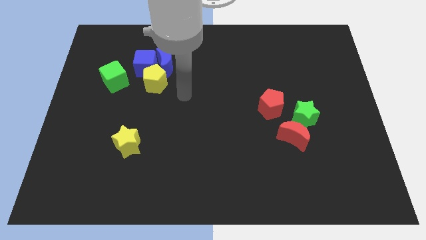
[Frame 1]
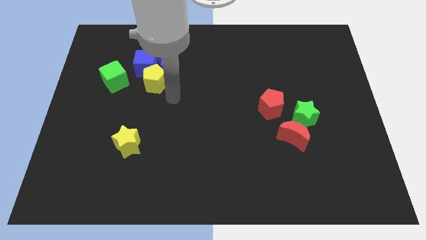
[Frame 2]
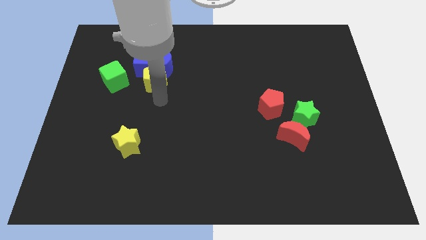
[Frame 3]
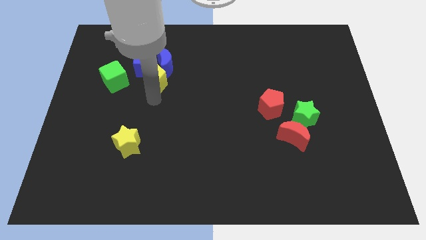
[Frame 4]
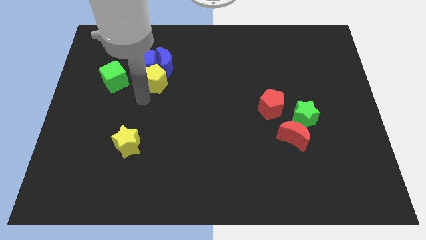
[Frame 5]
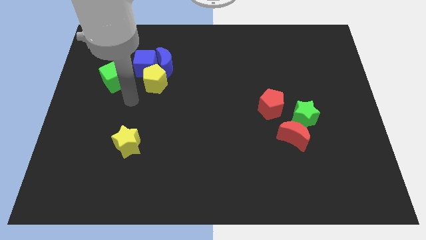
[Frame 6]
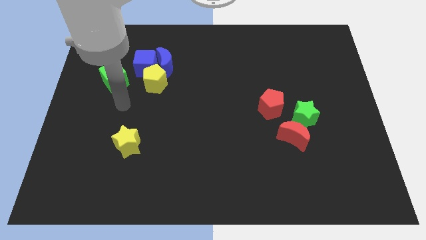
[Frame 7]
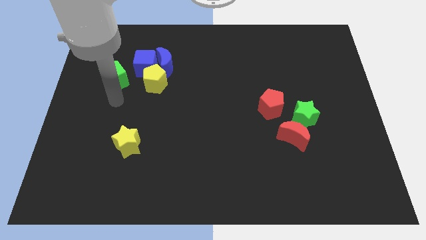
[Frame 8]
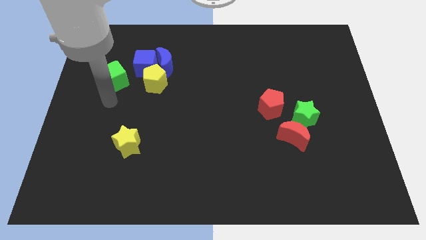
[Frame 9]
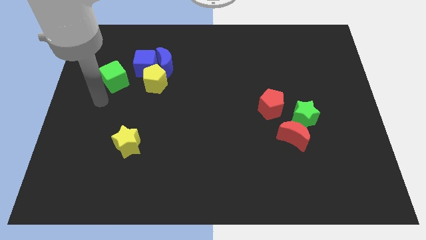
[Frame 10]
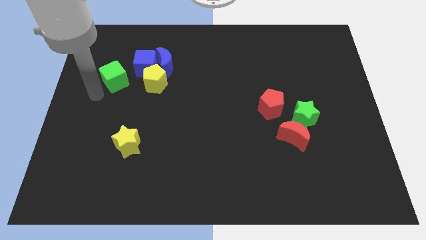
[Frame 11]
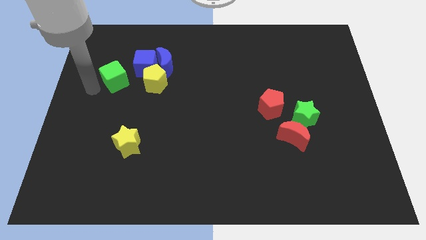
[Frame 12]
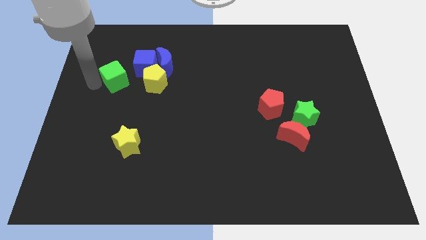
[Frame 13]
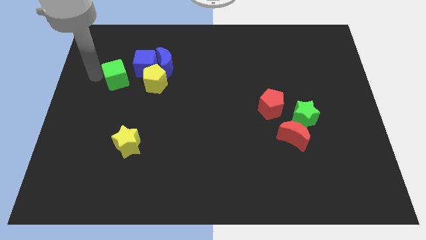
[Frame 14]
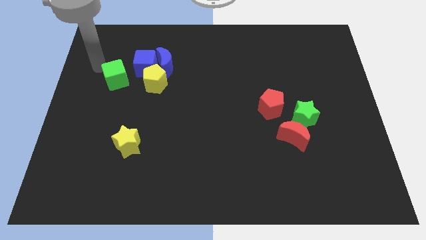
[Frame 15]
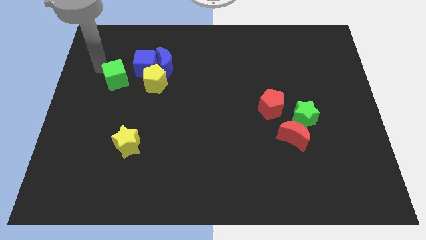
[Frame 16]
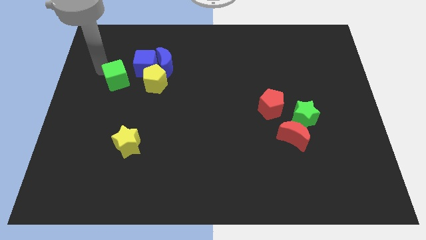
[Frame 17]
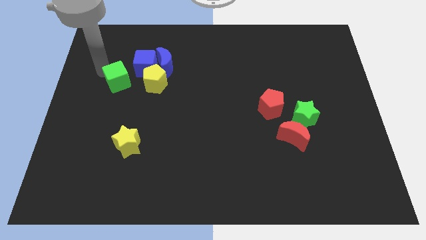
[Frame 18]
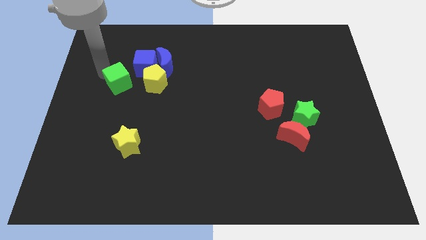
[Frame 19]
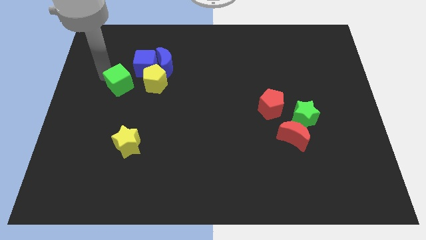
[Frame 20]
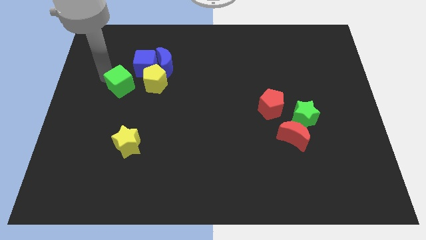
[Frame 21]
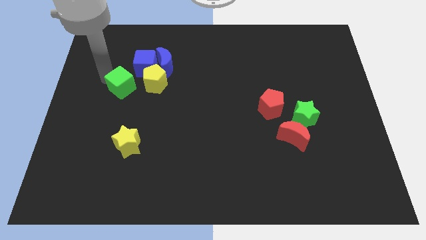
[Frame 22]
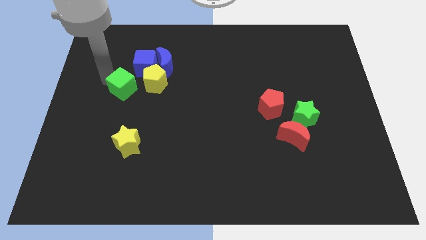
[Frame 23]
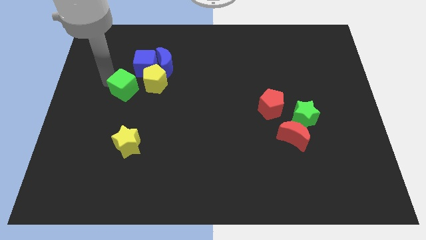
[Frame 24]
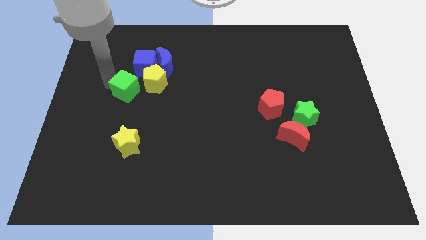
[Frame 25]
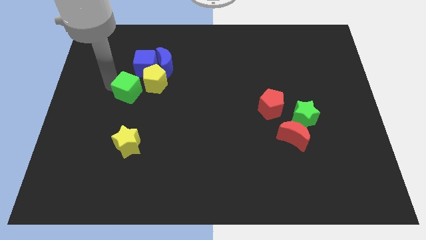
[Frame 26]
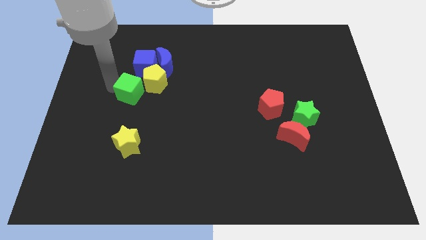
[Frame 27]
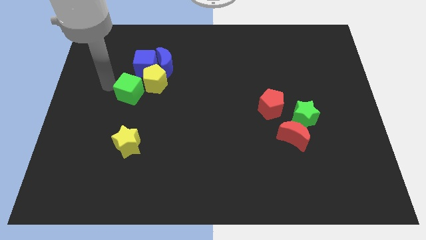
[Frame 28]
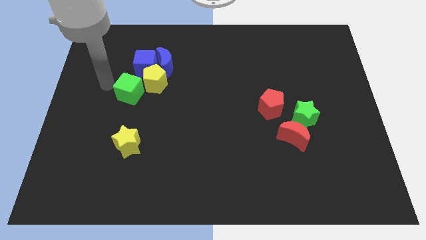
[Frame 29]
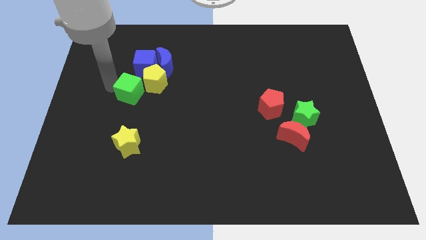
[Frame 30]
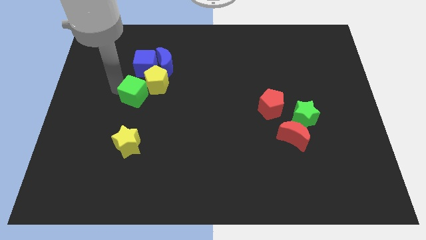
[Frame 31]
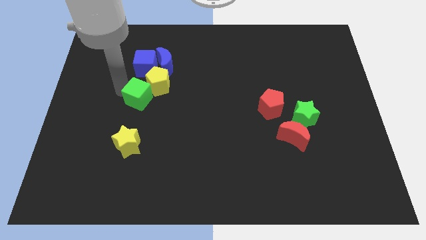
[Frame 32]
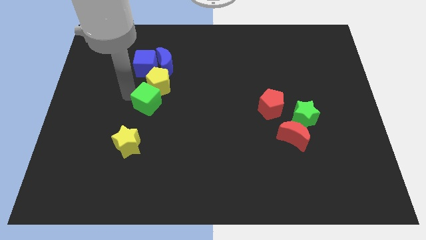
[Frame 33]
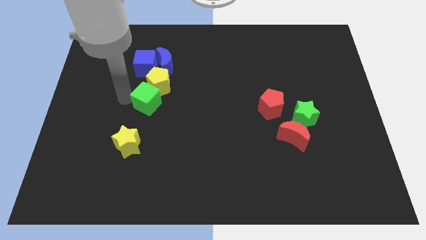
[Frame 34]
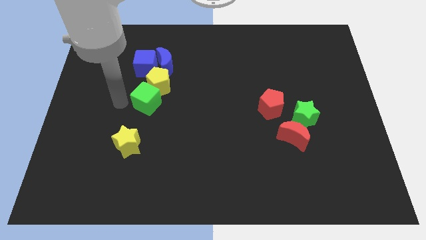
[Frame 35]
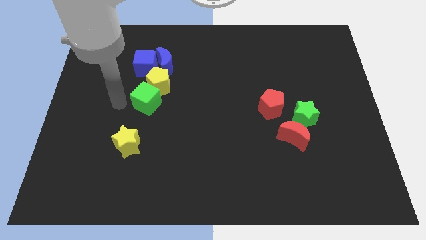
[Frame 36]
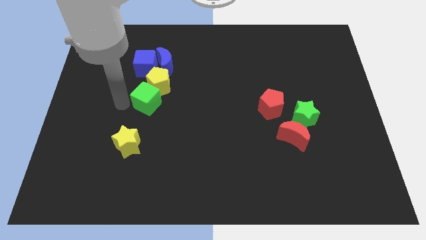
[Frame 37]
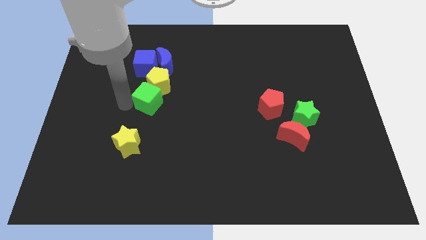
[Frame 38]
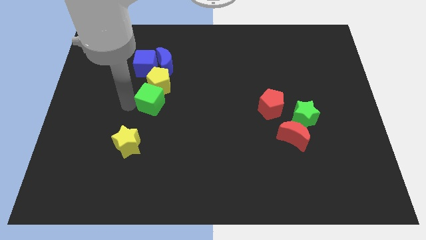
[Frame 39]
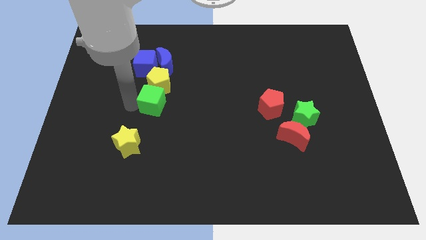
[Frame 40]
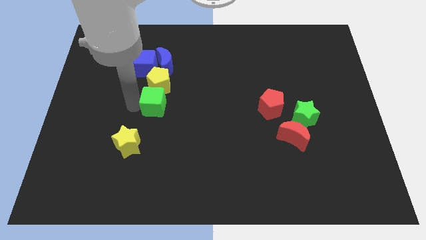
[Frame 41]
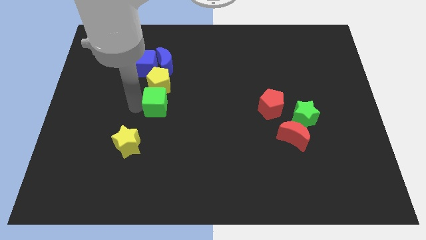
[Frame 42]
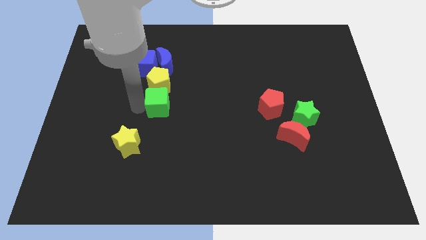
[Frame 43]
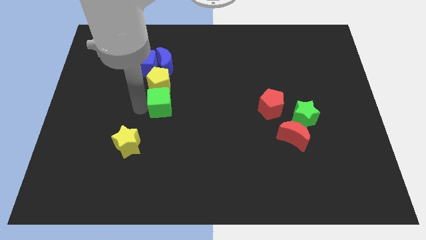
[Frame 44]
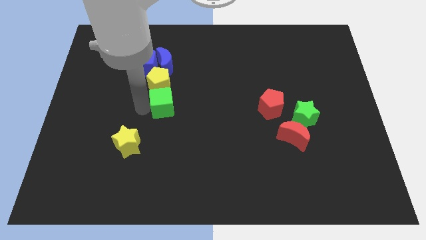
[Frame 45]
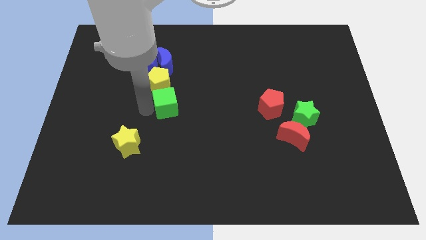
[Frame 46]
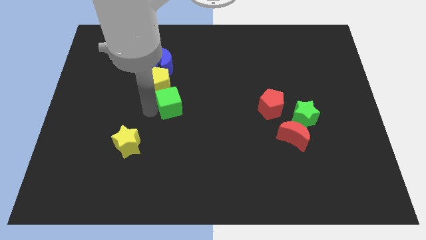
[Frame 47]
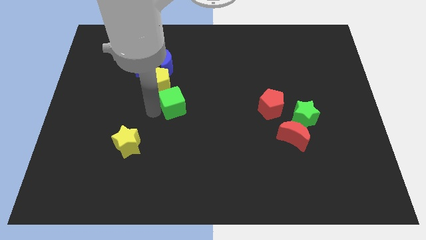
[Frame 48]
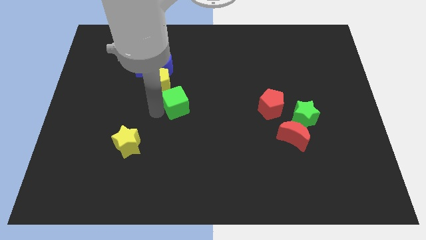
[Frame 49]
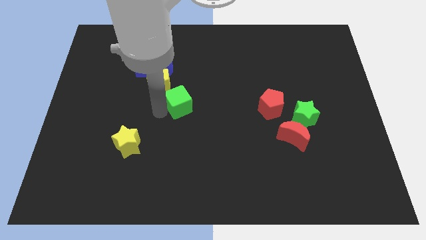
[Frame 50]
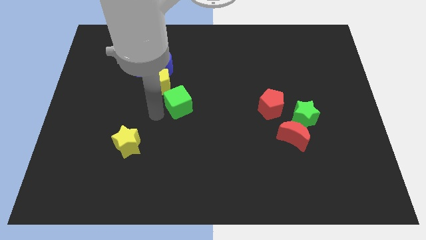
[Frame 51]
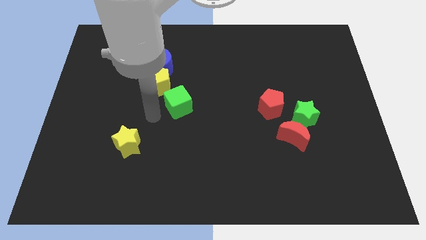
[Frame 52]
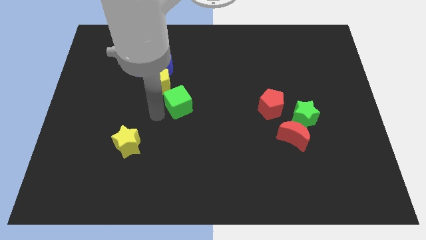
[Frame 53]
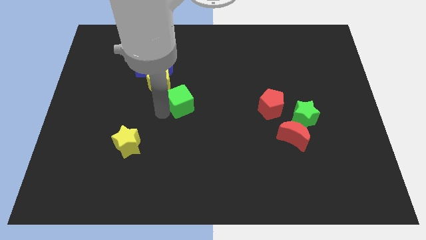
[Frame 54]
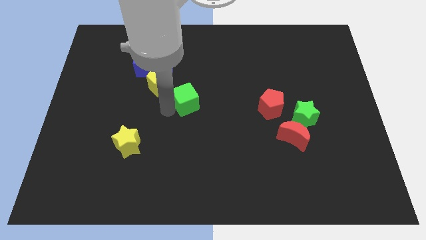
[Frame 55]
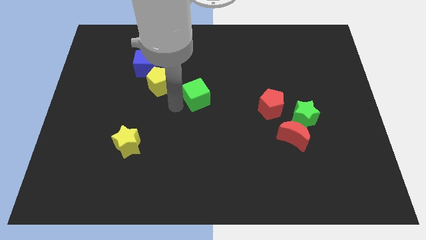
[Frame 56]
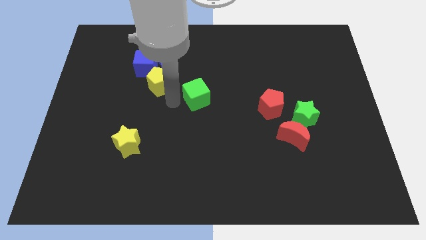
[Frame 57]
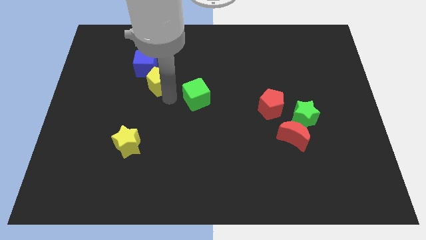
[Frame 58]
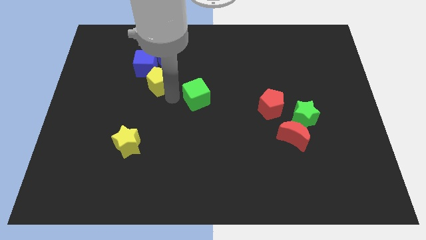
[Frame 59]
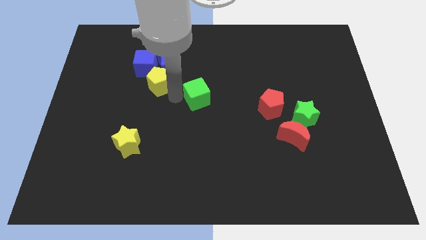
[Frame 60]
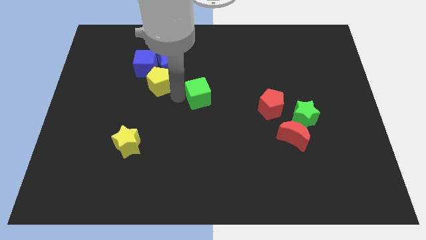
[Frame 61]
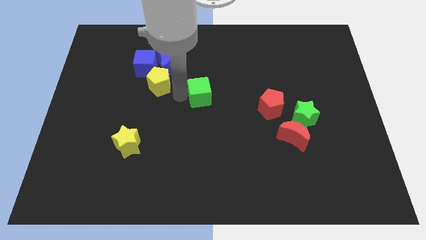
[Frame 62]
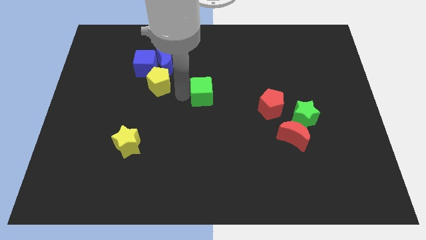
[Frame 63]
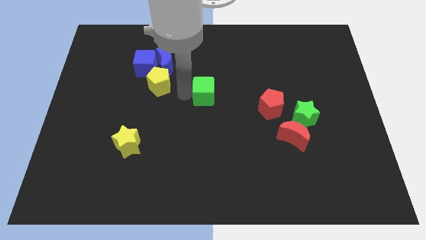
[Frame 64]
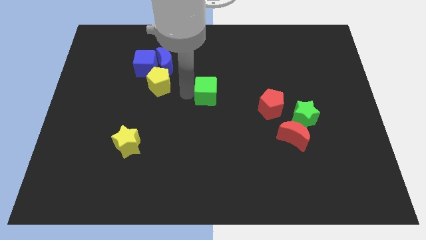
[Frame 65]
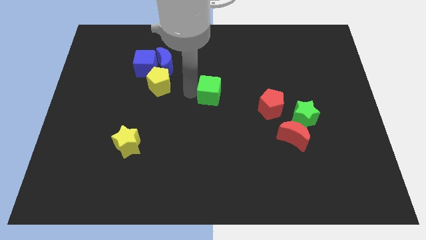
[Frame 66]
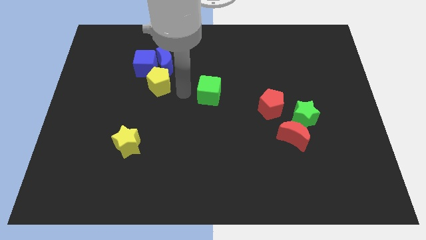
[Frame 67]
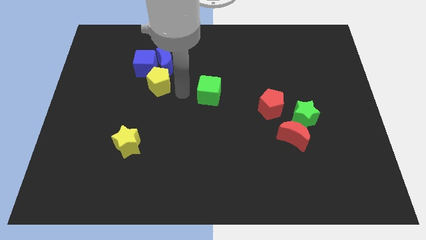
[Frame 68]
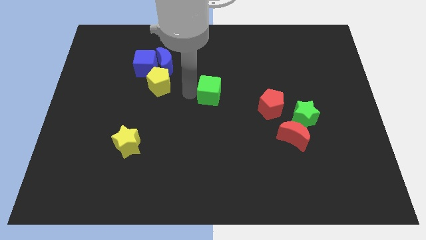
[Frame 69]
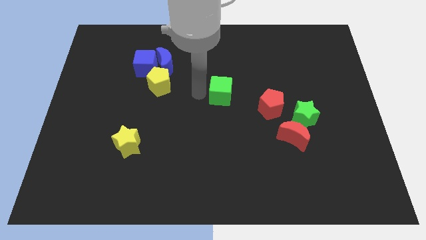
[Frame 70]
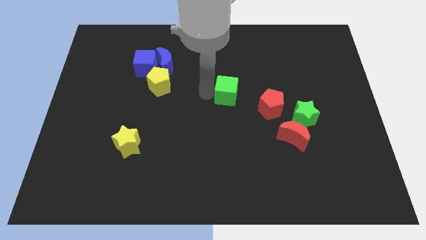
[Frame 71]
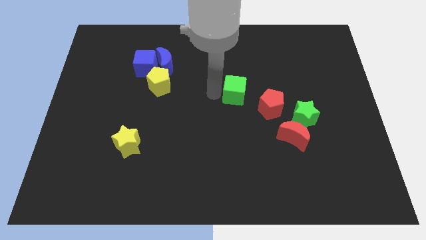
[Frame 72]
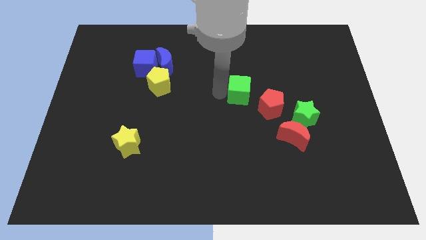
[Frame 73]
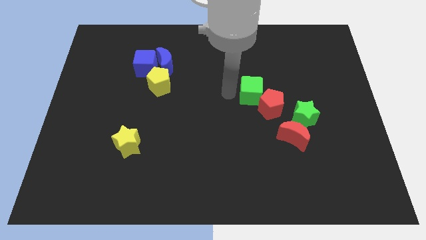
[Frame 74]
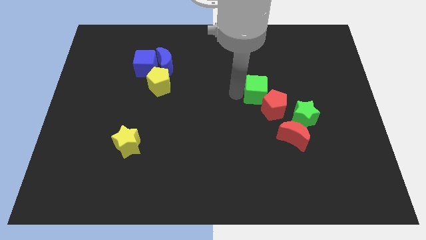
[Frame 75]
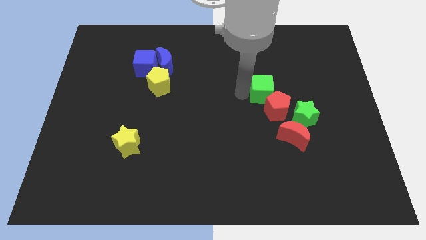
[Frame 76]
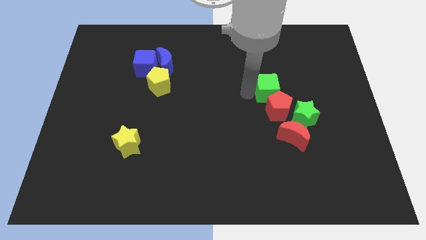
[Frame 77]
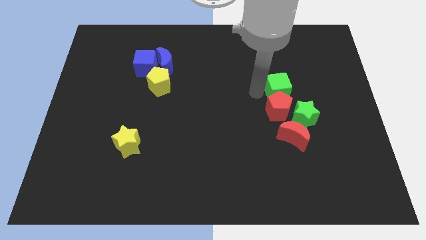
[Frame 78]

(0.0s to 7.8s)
push the green cube to the top side of the green star

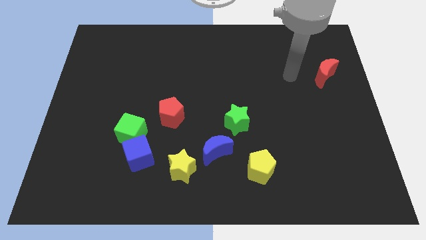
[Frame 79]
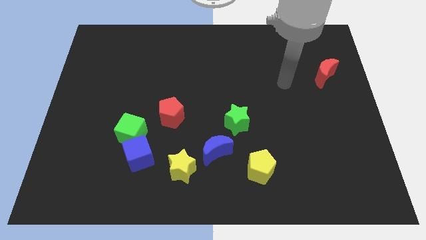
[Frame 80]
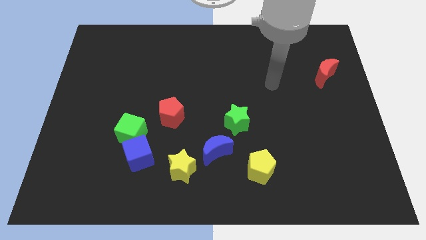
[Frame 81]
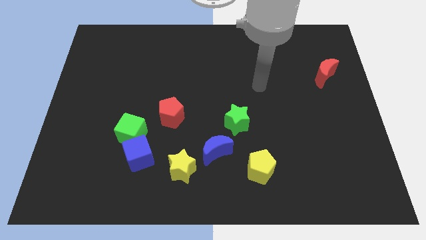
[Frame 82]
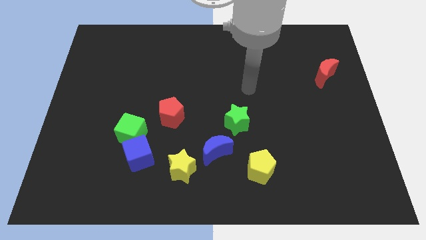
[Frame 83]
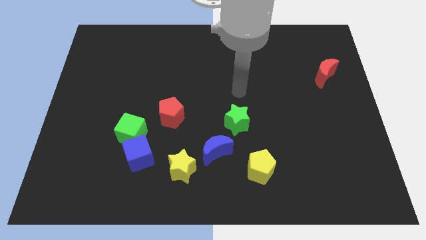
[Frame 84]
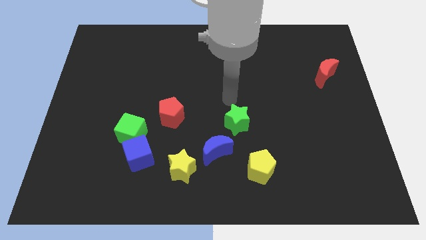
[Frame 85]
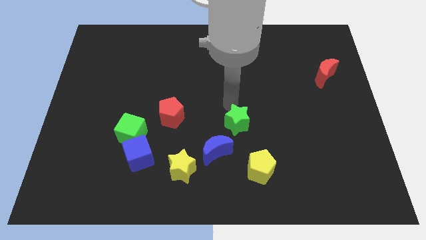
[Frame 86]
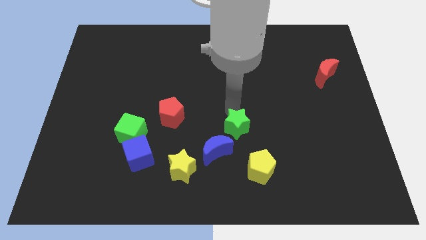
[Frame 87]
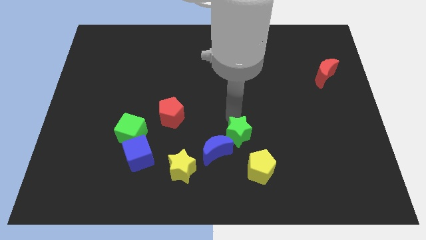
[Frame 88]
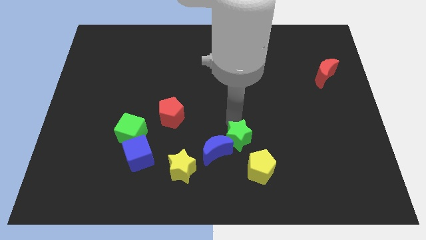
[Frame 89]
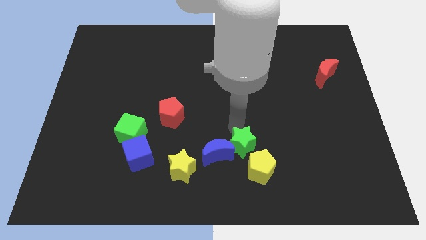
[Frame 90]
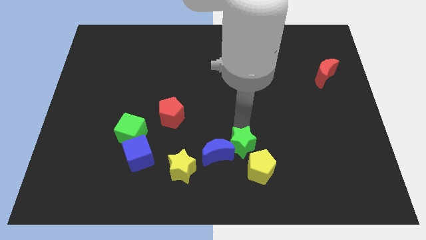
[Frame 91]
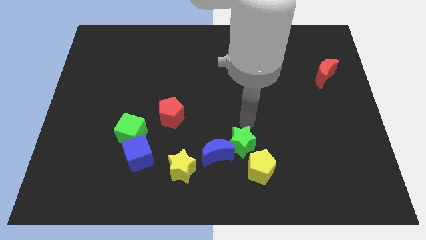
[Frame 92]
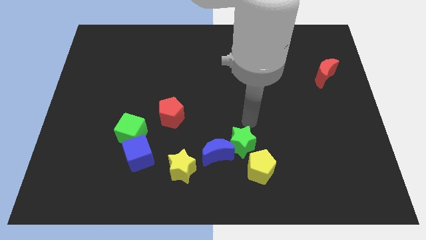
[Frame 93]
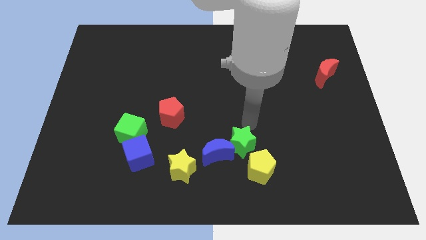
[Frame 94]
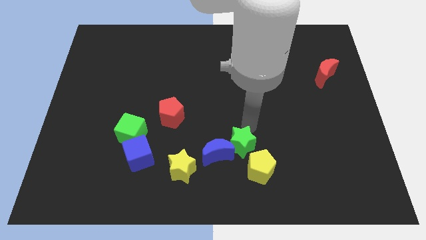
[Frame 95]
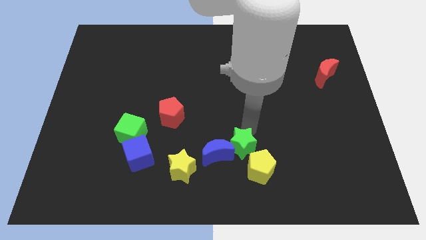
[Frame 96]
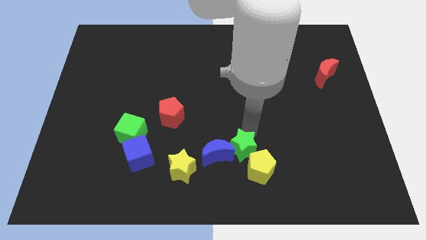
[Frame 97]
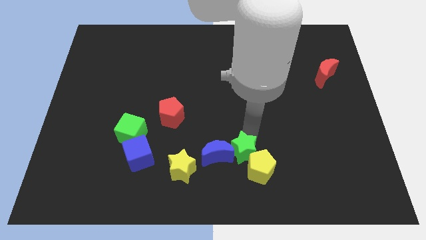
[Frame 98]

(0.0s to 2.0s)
move the green star to the left of the yellow pentagon
